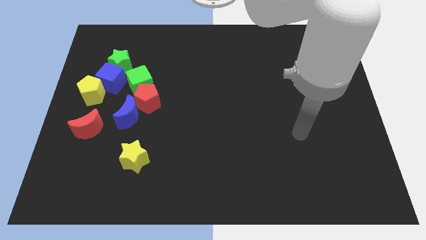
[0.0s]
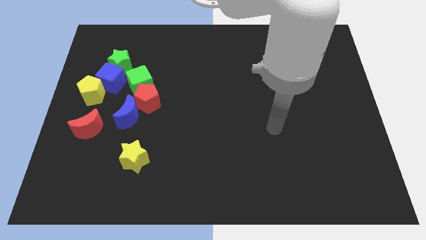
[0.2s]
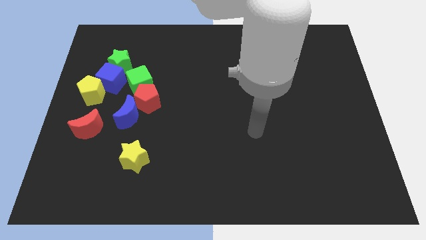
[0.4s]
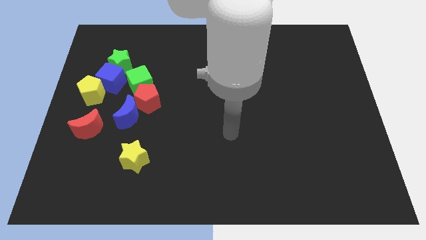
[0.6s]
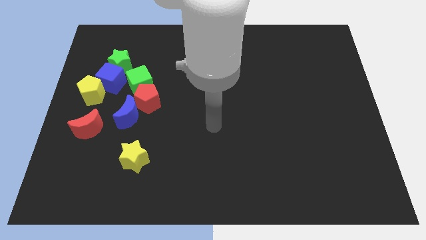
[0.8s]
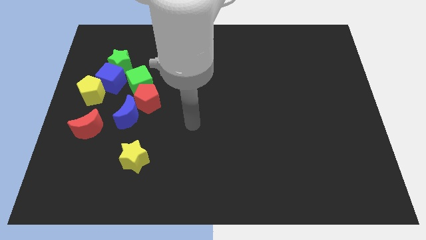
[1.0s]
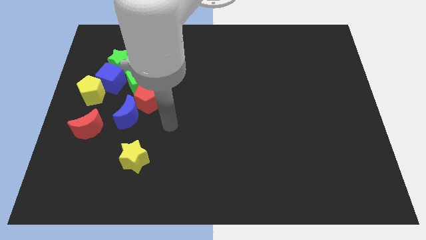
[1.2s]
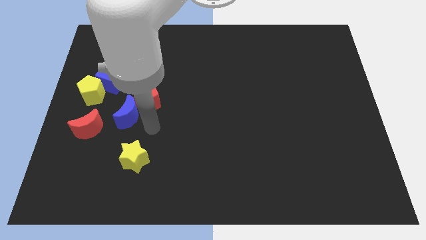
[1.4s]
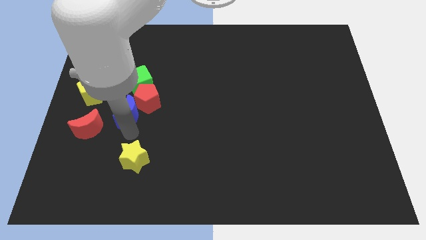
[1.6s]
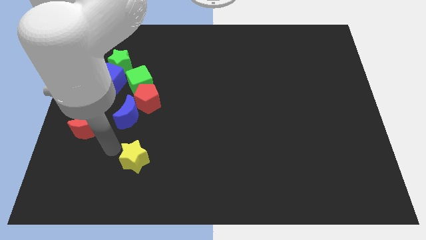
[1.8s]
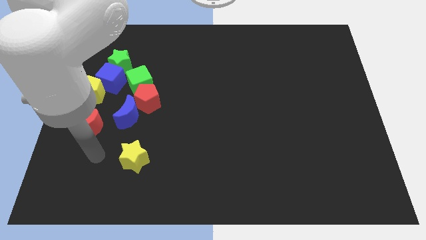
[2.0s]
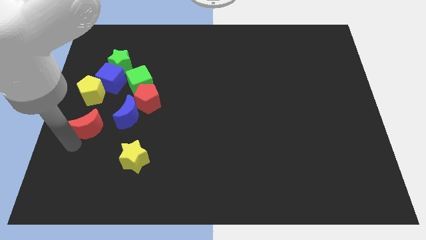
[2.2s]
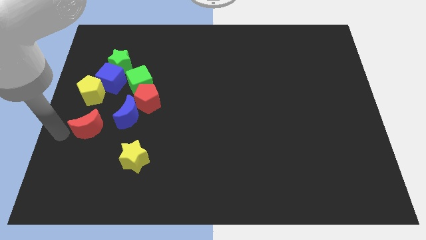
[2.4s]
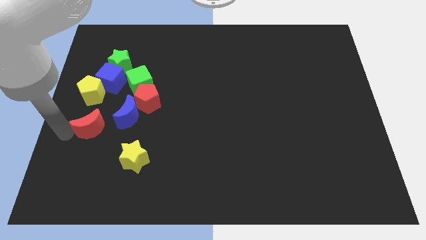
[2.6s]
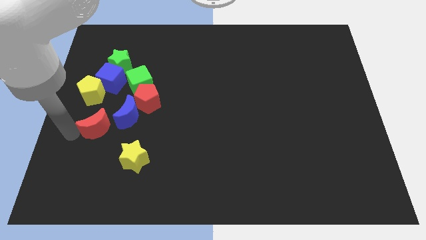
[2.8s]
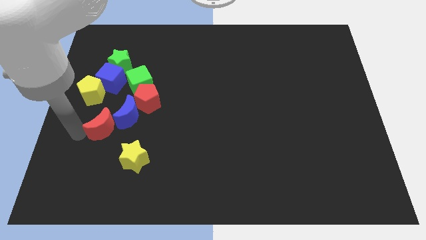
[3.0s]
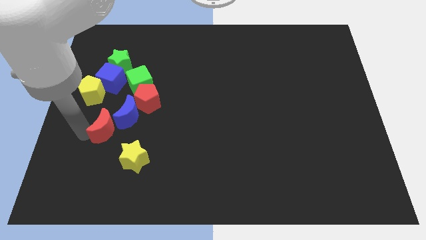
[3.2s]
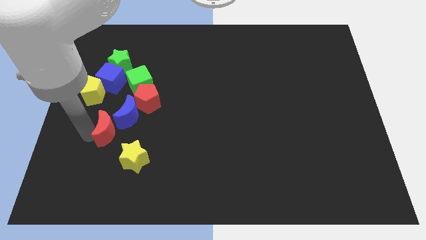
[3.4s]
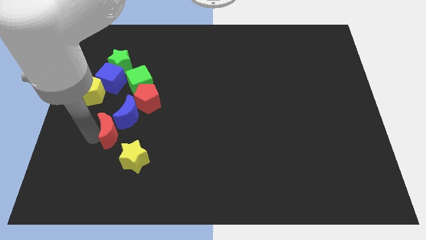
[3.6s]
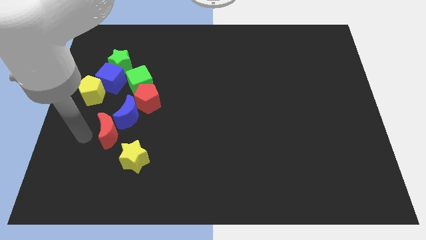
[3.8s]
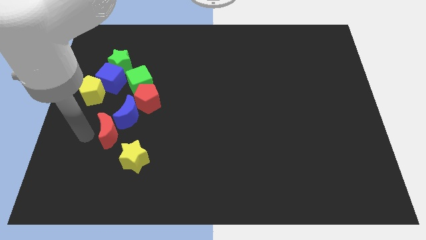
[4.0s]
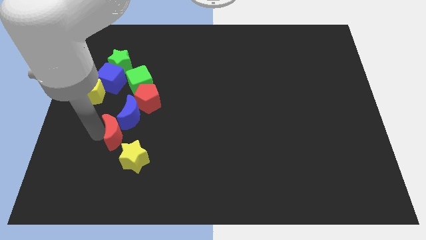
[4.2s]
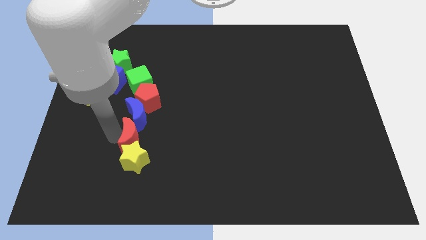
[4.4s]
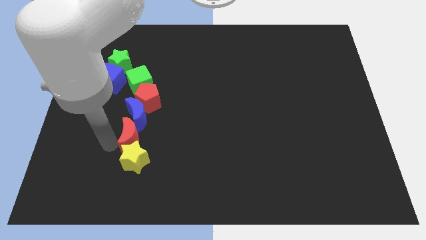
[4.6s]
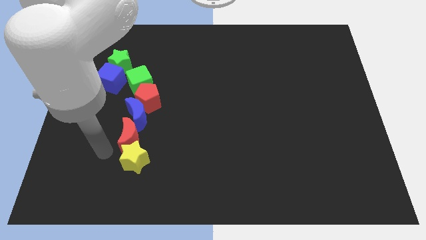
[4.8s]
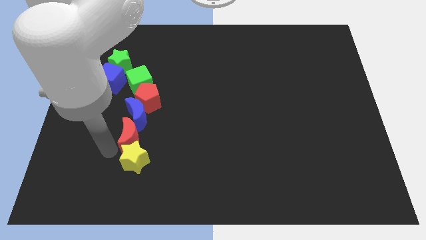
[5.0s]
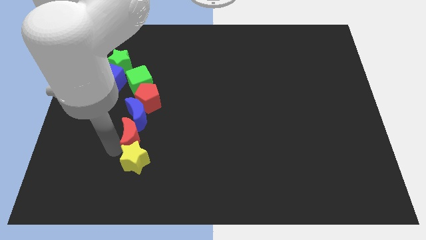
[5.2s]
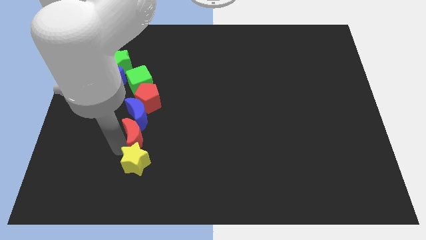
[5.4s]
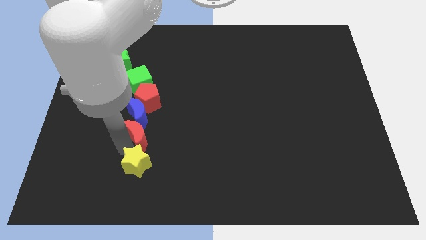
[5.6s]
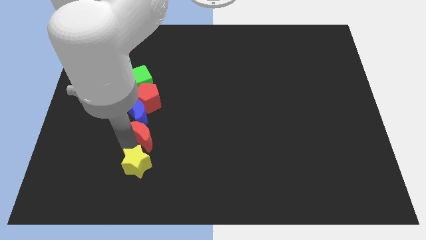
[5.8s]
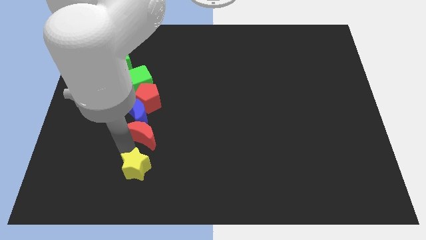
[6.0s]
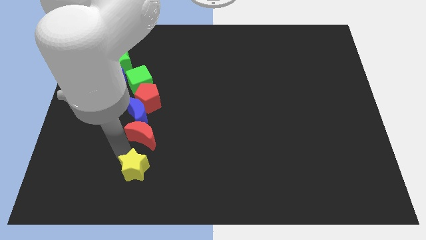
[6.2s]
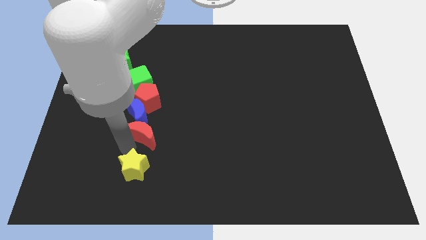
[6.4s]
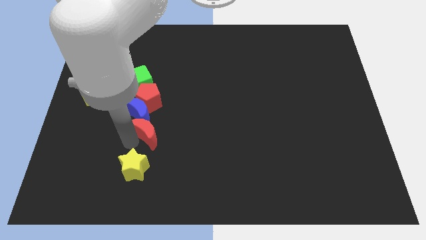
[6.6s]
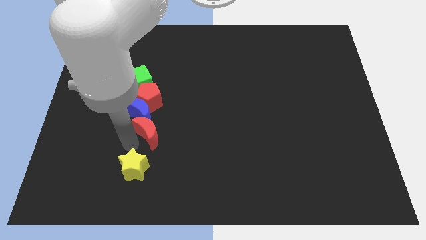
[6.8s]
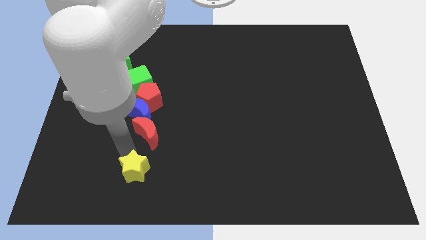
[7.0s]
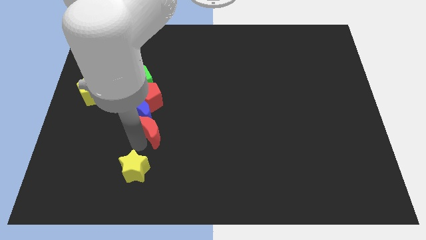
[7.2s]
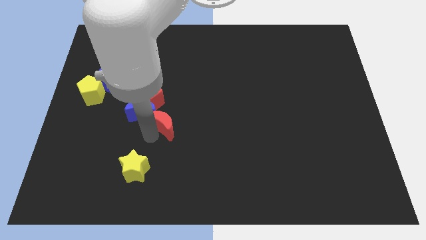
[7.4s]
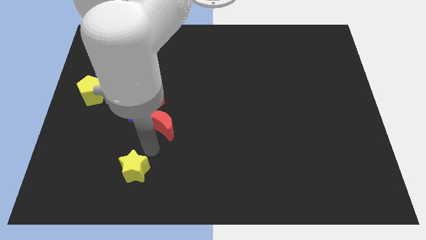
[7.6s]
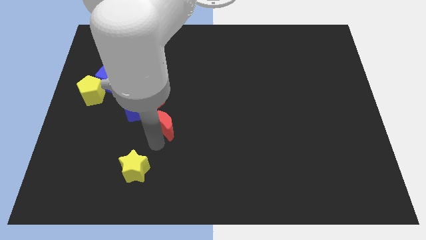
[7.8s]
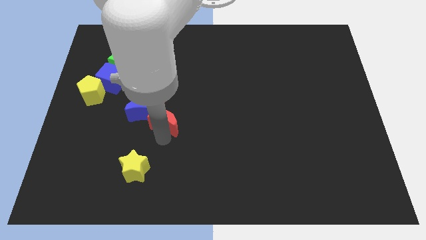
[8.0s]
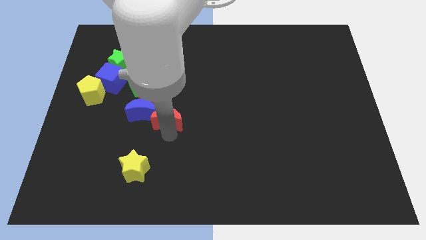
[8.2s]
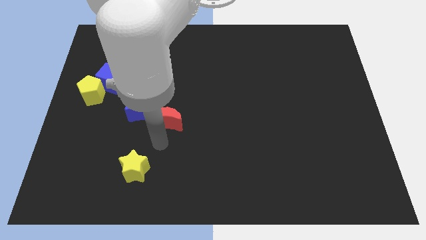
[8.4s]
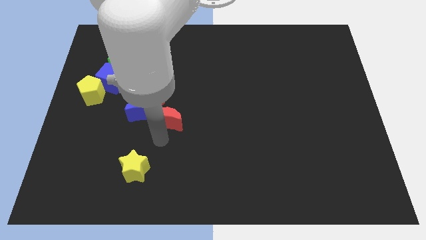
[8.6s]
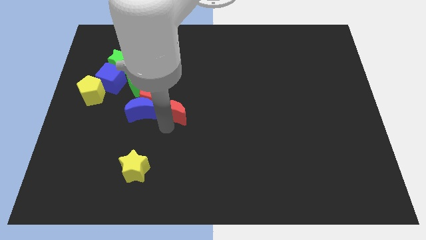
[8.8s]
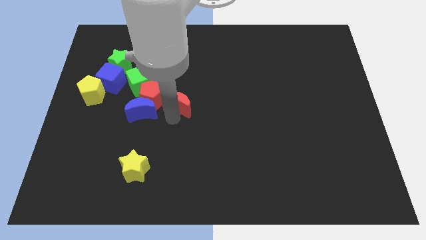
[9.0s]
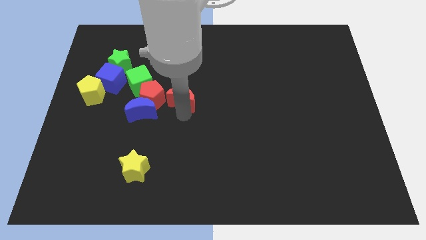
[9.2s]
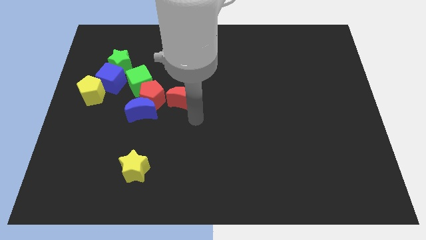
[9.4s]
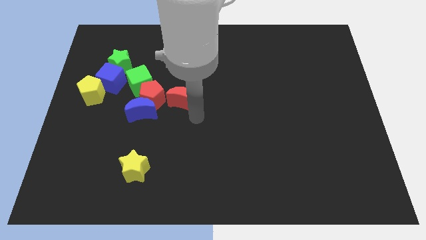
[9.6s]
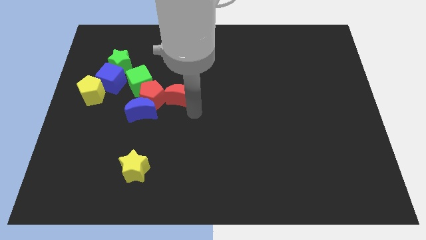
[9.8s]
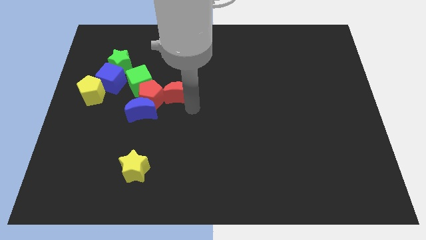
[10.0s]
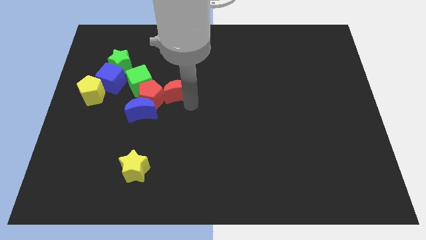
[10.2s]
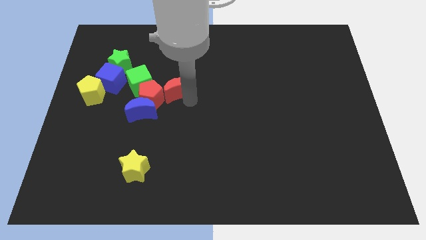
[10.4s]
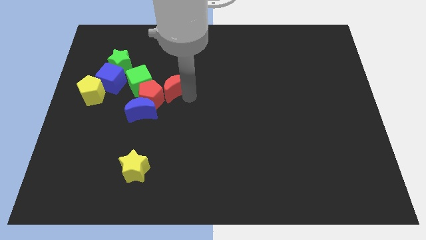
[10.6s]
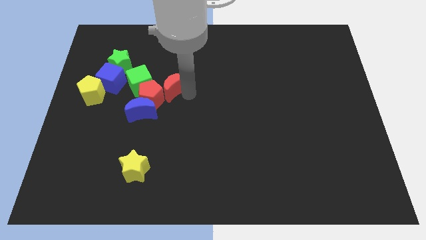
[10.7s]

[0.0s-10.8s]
slide the red moon to the right of the blue cube

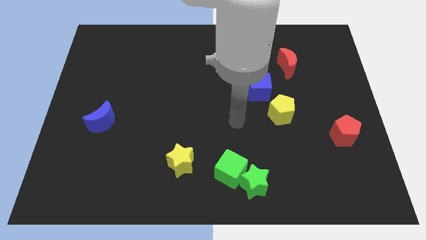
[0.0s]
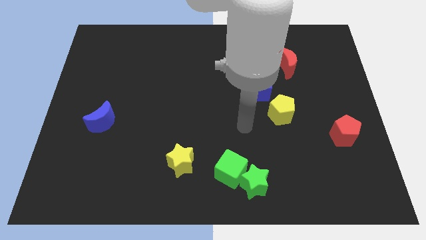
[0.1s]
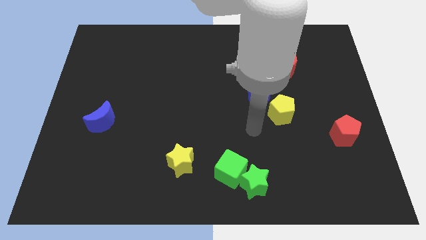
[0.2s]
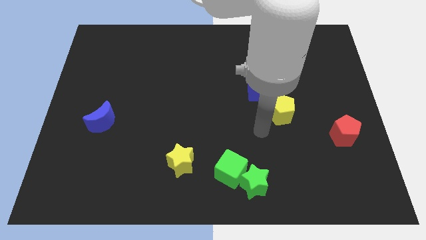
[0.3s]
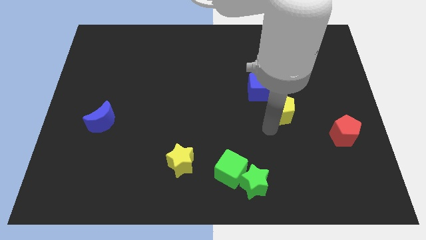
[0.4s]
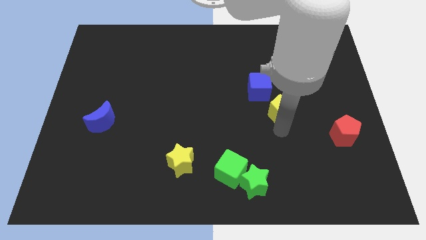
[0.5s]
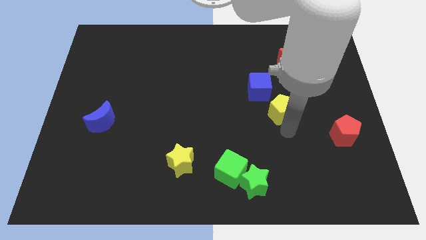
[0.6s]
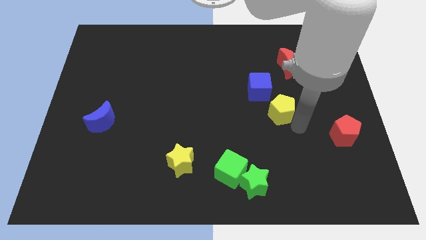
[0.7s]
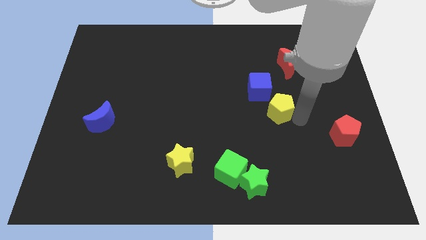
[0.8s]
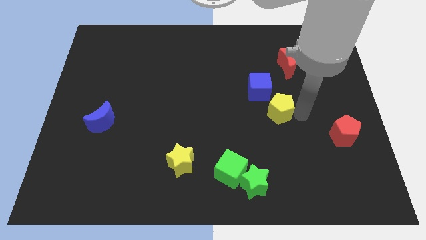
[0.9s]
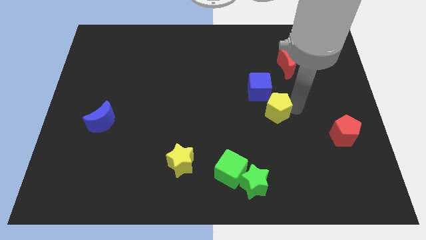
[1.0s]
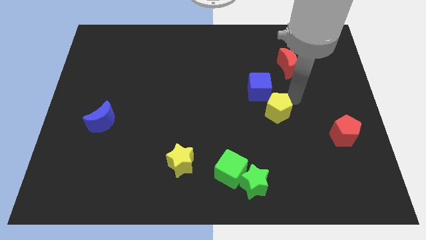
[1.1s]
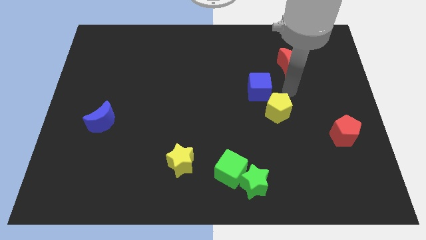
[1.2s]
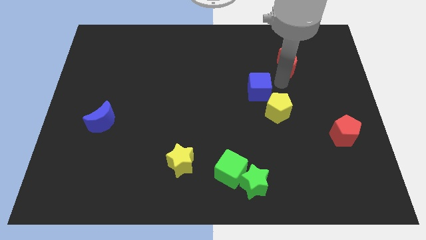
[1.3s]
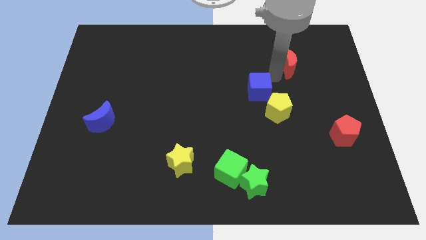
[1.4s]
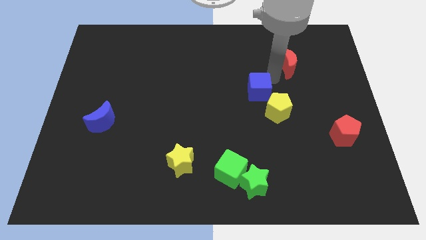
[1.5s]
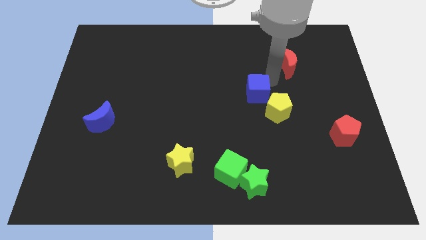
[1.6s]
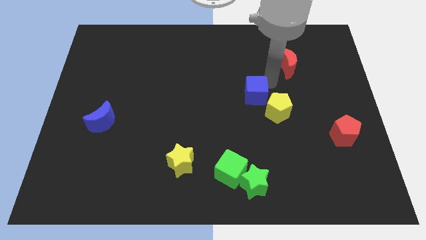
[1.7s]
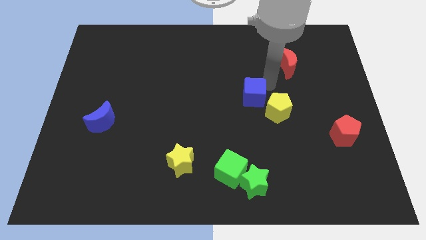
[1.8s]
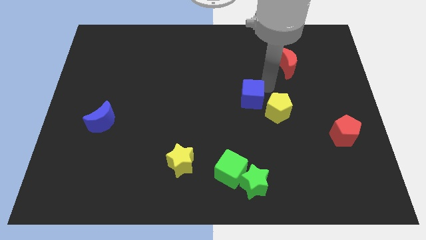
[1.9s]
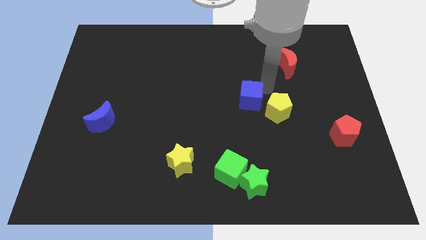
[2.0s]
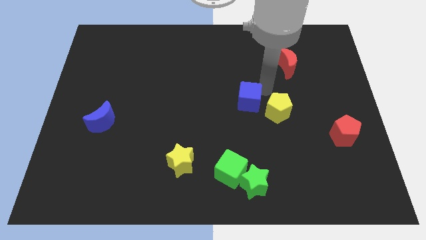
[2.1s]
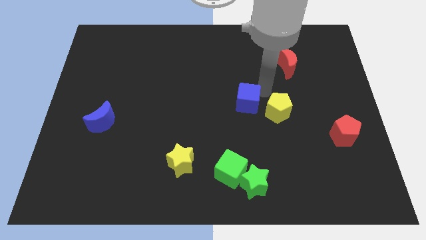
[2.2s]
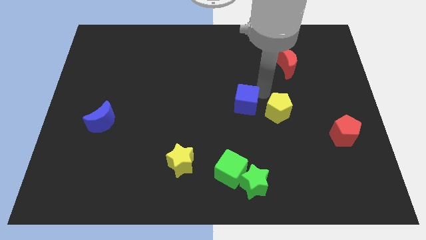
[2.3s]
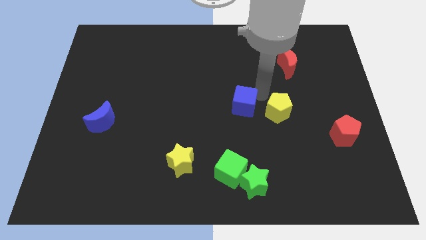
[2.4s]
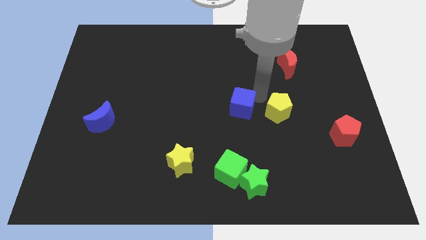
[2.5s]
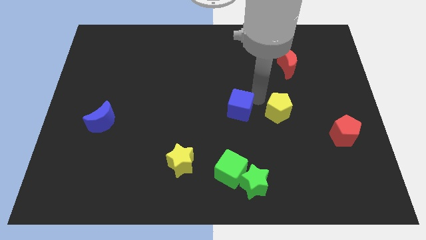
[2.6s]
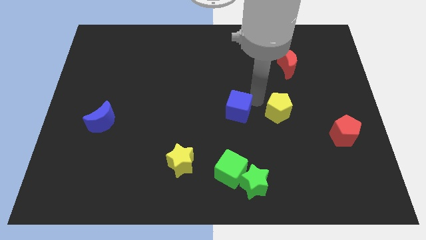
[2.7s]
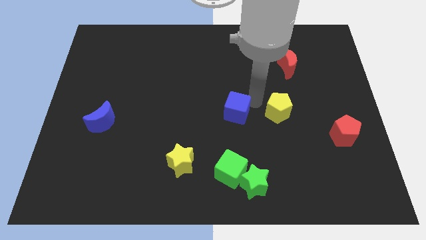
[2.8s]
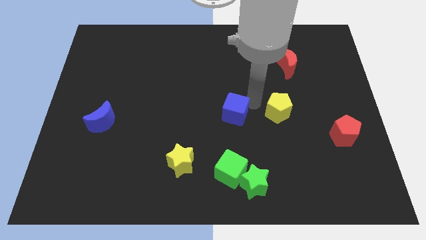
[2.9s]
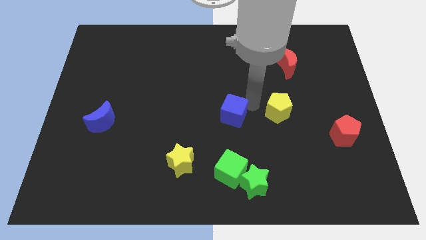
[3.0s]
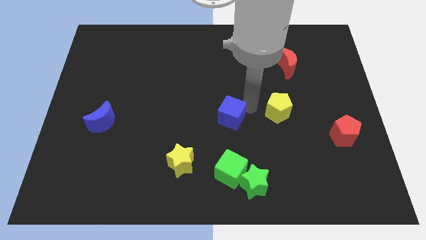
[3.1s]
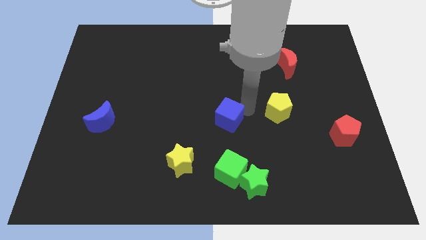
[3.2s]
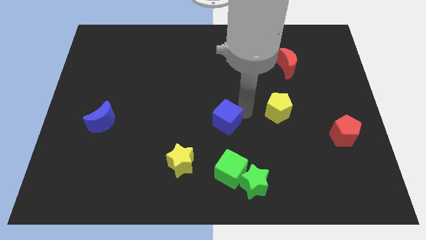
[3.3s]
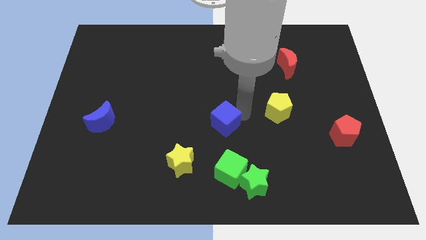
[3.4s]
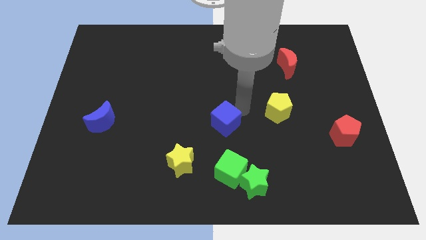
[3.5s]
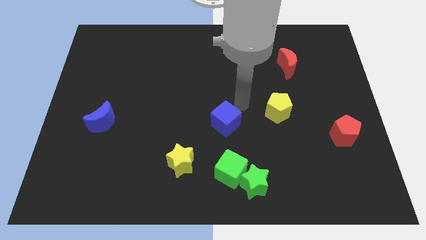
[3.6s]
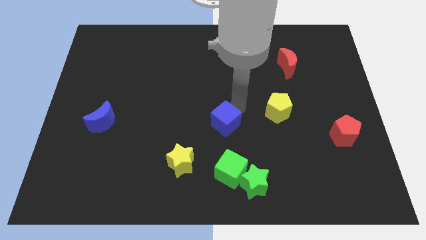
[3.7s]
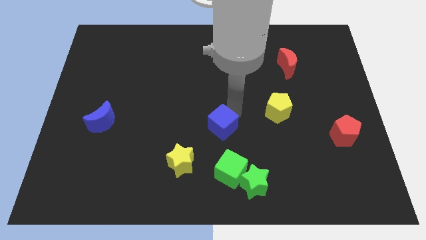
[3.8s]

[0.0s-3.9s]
move the blue cube diagonally up and to the right of the yellow star
